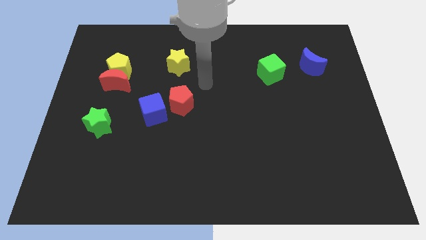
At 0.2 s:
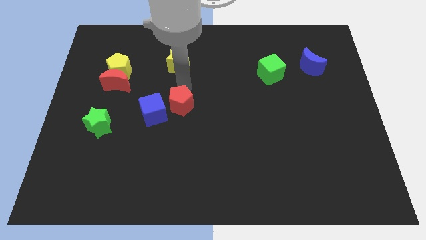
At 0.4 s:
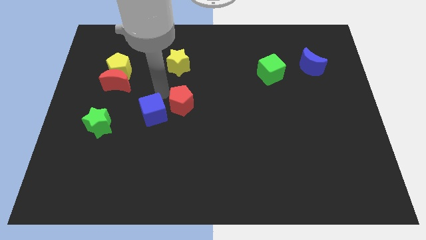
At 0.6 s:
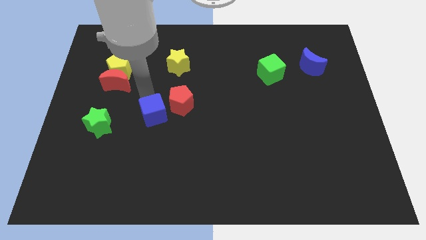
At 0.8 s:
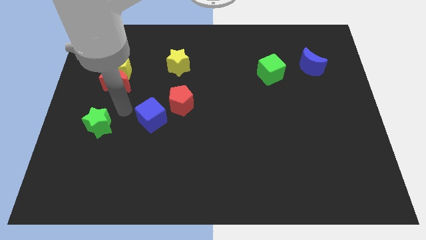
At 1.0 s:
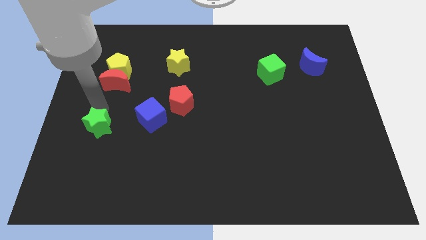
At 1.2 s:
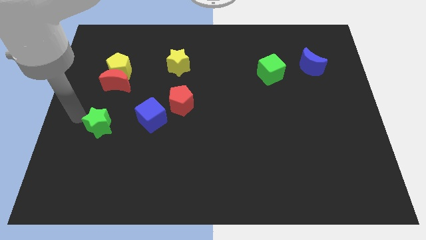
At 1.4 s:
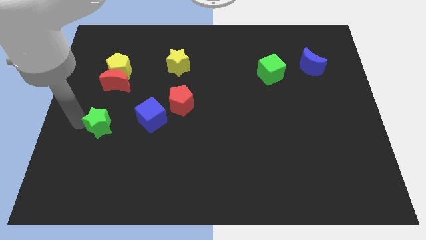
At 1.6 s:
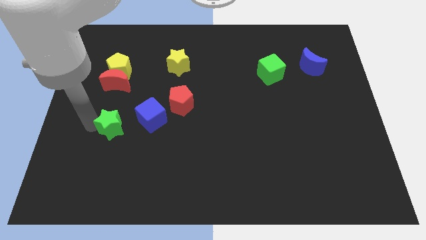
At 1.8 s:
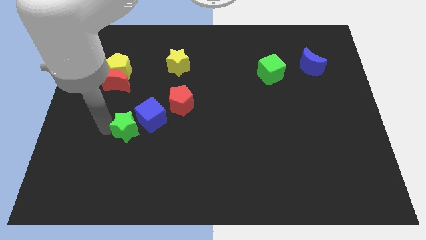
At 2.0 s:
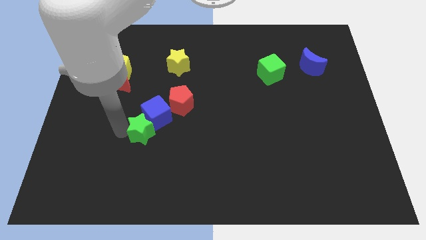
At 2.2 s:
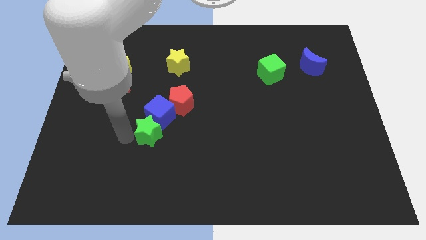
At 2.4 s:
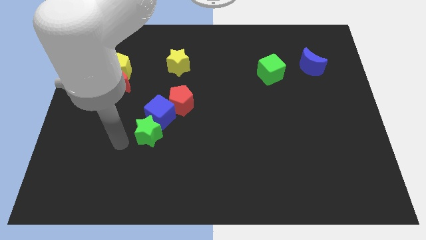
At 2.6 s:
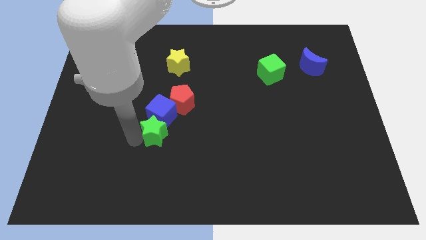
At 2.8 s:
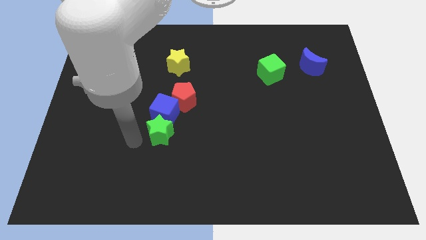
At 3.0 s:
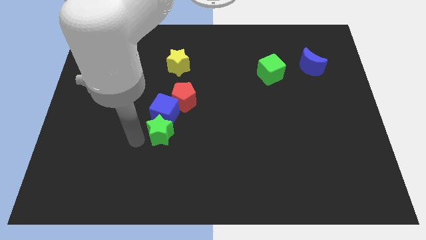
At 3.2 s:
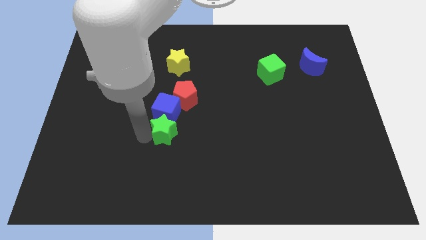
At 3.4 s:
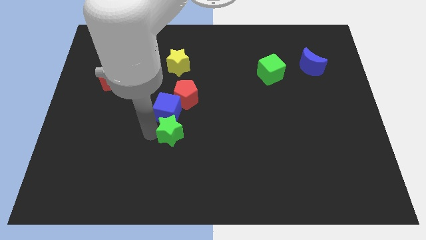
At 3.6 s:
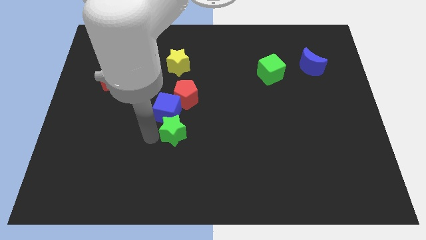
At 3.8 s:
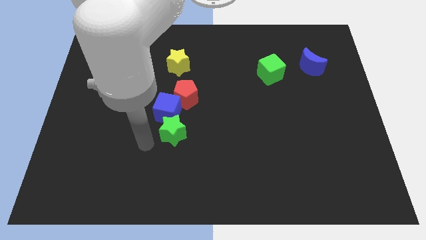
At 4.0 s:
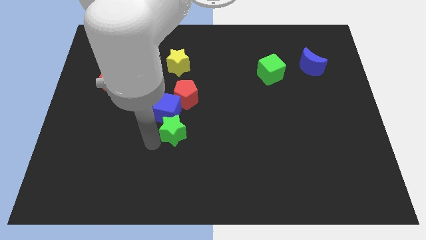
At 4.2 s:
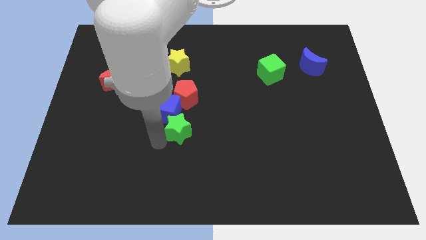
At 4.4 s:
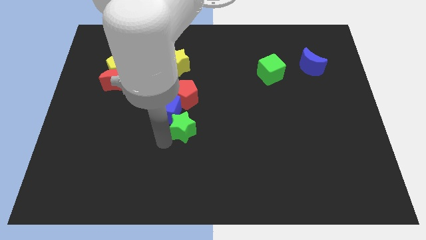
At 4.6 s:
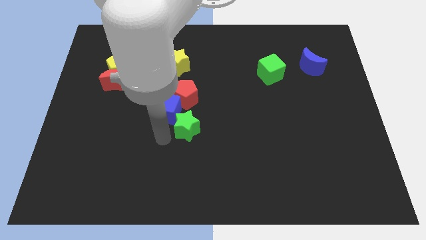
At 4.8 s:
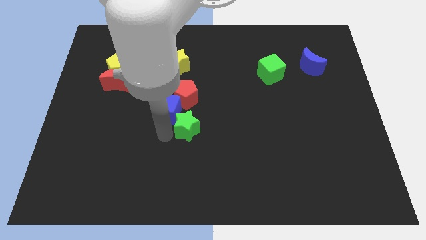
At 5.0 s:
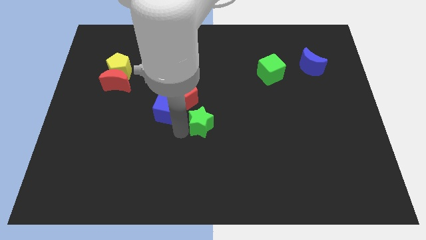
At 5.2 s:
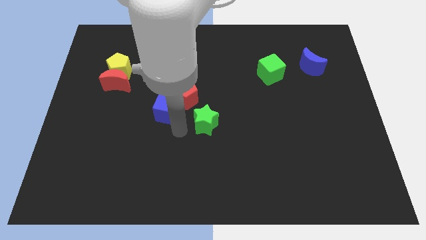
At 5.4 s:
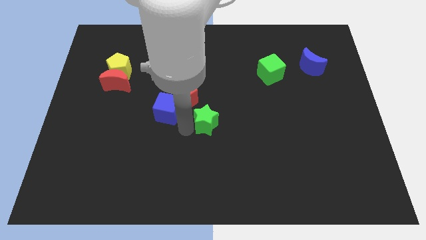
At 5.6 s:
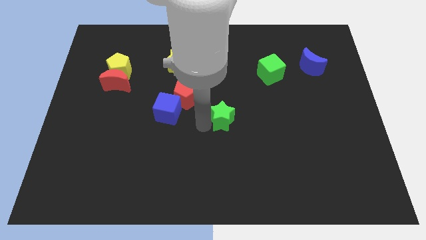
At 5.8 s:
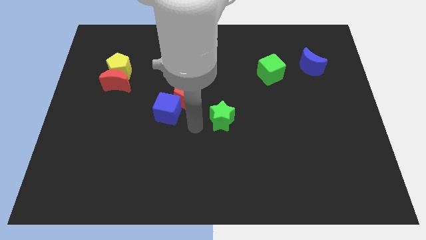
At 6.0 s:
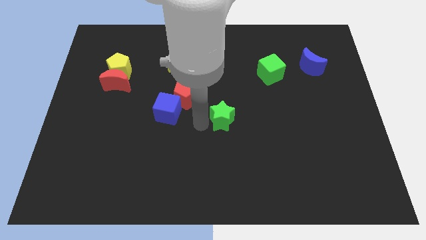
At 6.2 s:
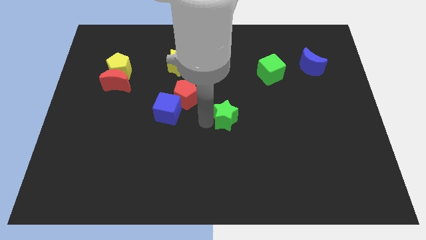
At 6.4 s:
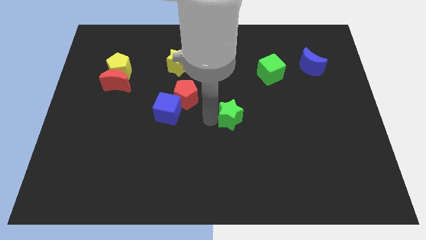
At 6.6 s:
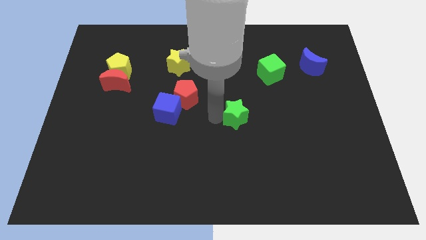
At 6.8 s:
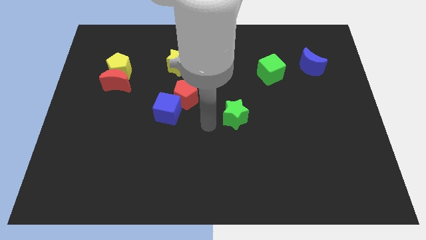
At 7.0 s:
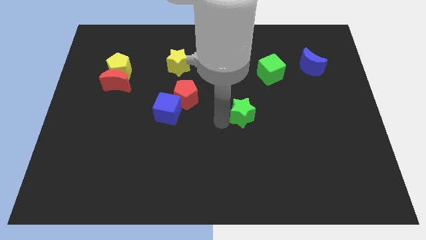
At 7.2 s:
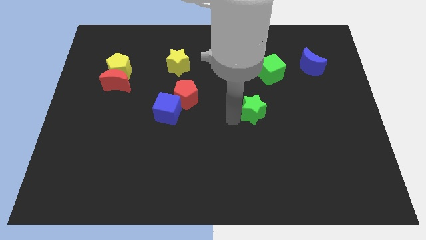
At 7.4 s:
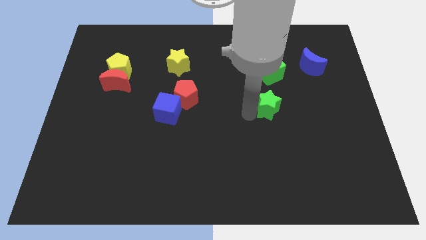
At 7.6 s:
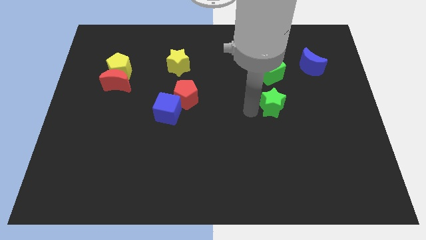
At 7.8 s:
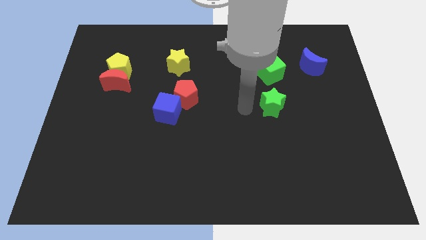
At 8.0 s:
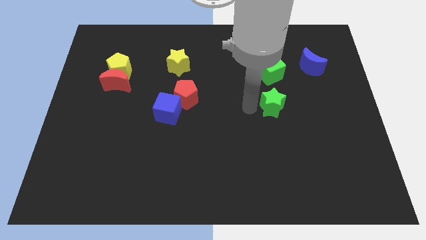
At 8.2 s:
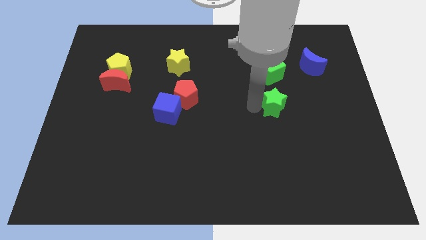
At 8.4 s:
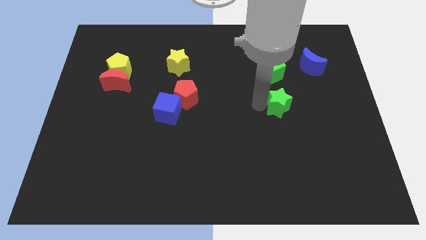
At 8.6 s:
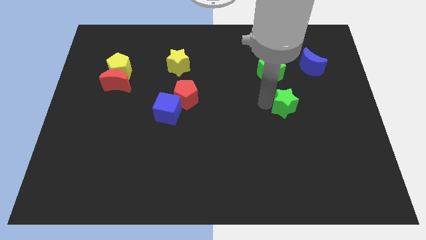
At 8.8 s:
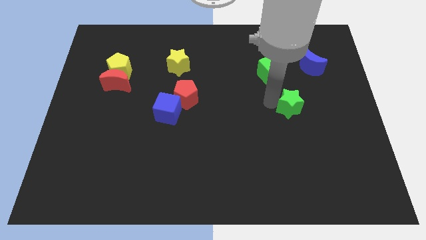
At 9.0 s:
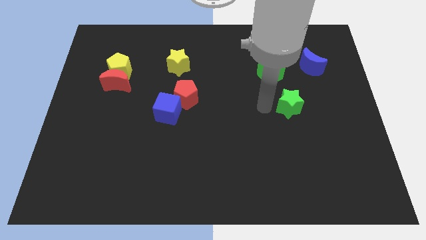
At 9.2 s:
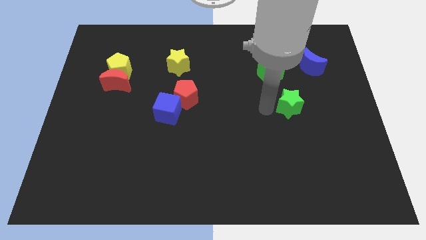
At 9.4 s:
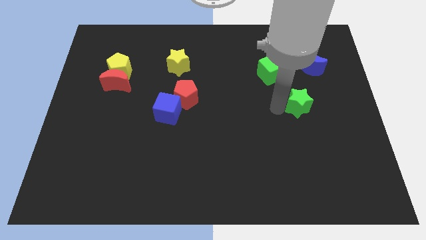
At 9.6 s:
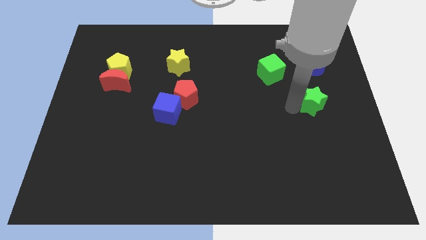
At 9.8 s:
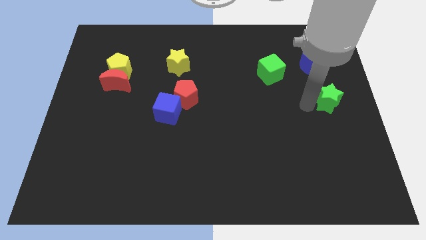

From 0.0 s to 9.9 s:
push the green star to the right side
